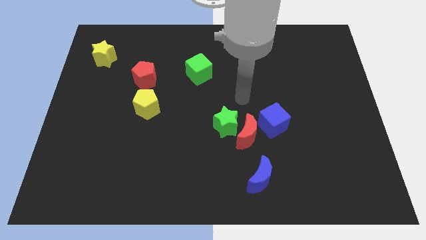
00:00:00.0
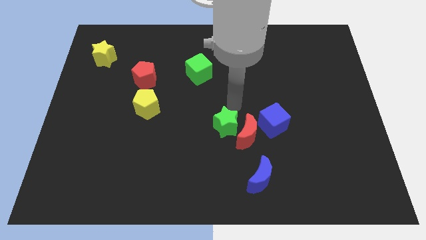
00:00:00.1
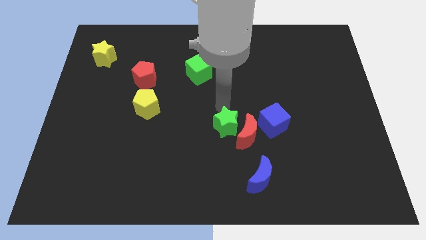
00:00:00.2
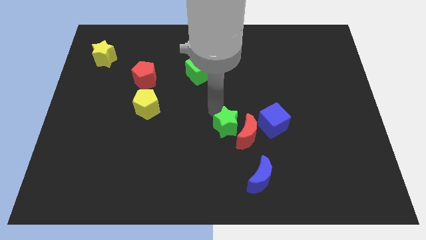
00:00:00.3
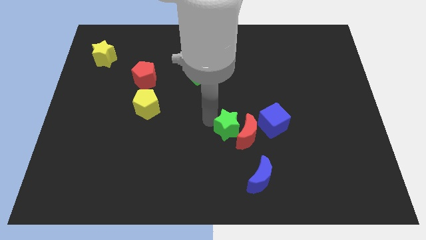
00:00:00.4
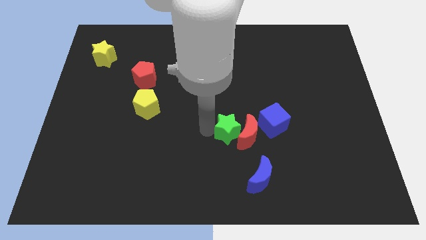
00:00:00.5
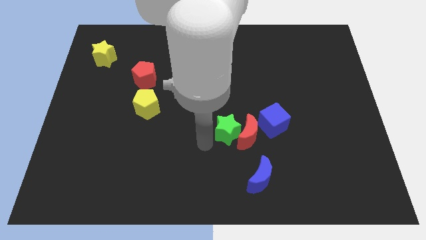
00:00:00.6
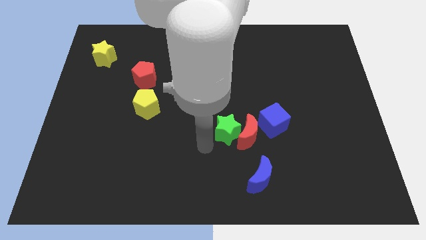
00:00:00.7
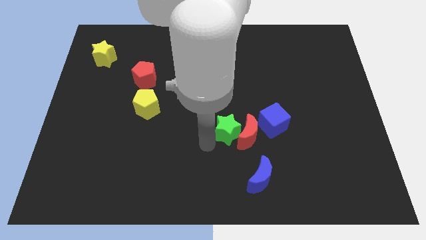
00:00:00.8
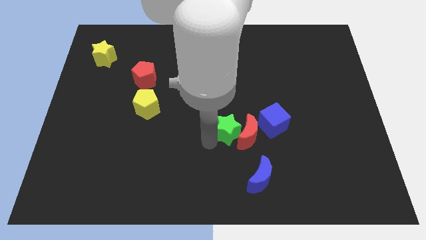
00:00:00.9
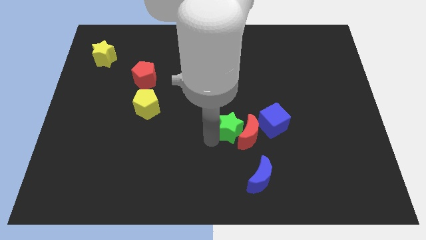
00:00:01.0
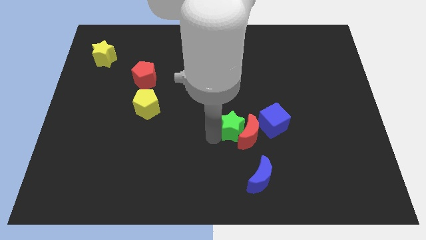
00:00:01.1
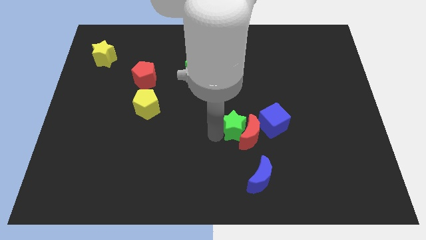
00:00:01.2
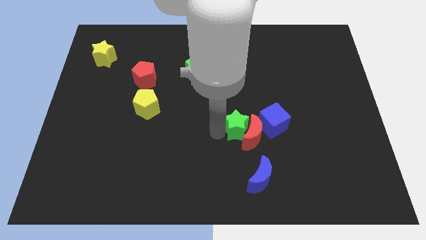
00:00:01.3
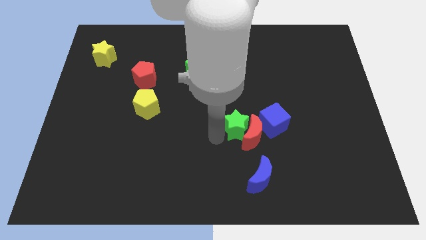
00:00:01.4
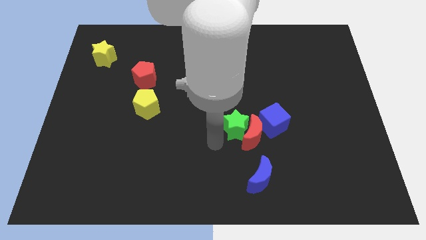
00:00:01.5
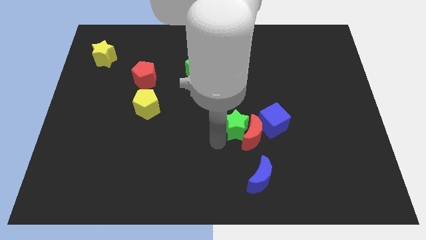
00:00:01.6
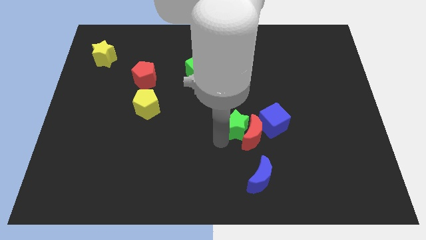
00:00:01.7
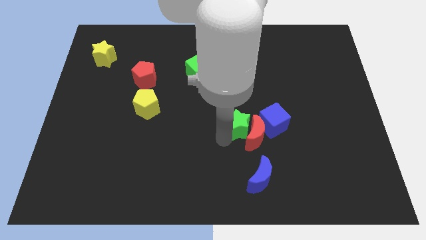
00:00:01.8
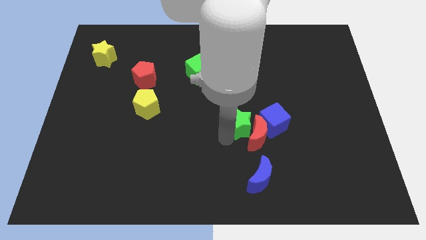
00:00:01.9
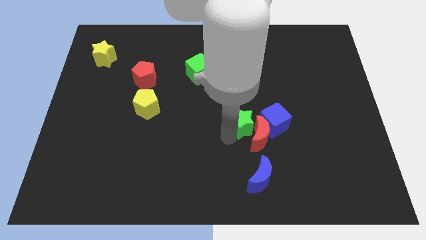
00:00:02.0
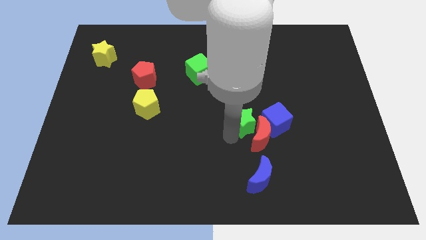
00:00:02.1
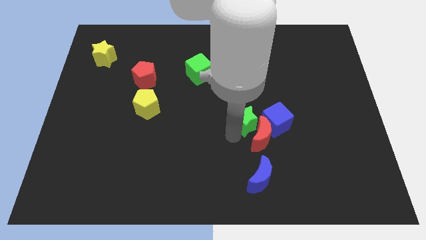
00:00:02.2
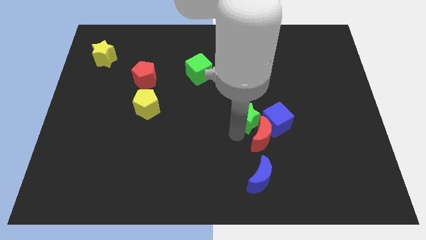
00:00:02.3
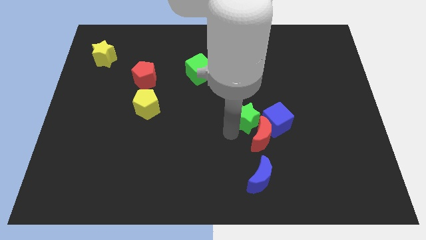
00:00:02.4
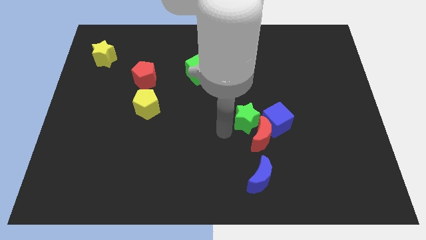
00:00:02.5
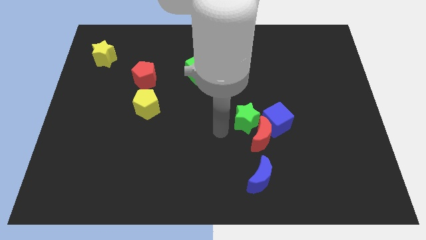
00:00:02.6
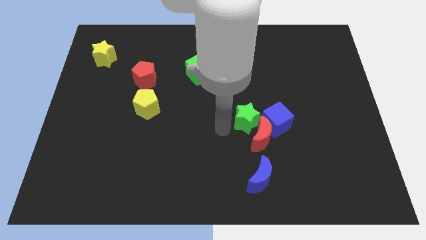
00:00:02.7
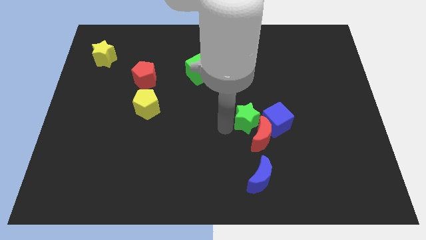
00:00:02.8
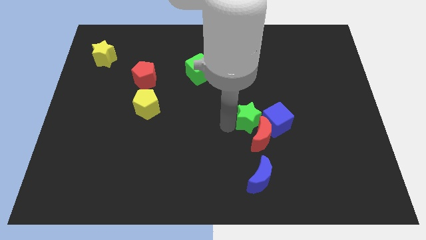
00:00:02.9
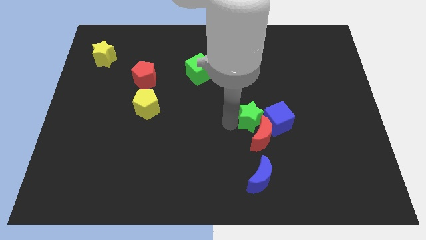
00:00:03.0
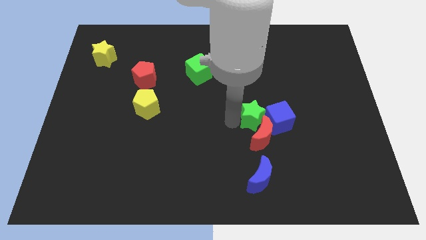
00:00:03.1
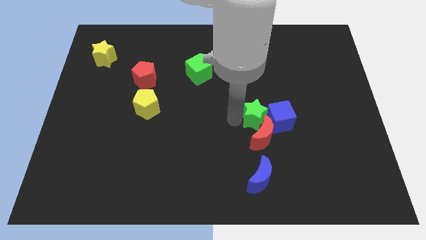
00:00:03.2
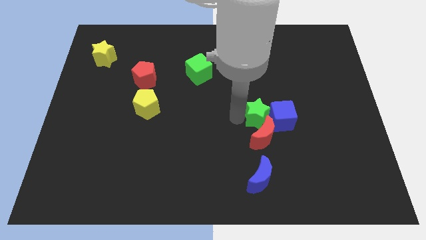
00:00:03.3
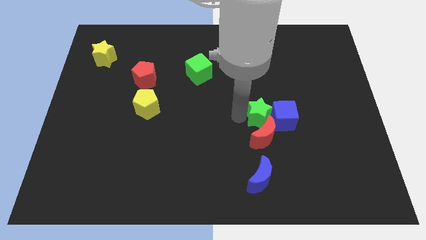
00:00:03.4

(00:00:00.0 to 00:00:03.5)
slightly slide the green star to the right

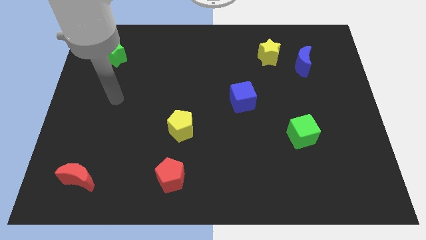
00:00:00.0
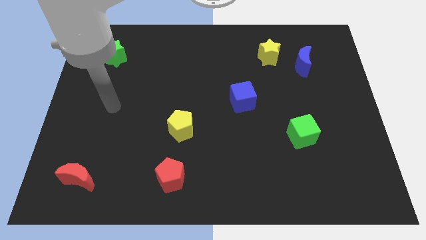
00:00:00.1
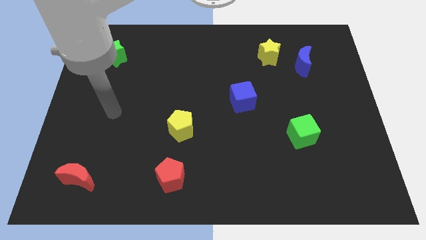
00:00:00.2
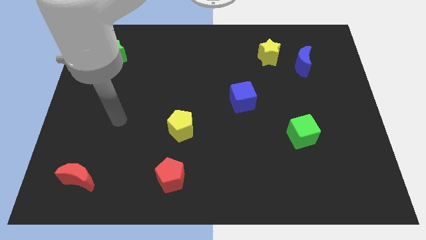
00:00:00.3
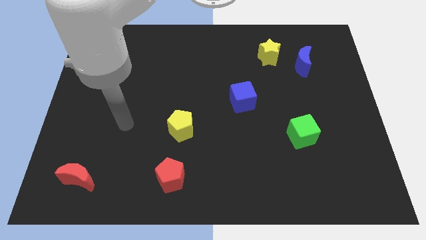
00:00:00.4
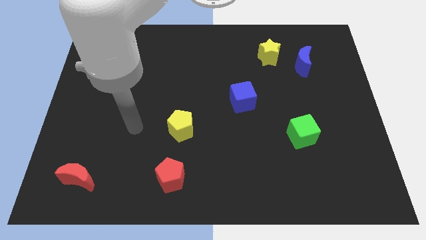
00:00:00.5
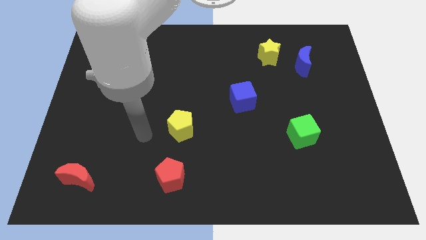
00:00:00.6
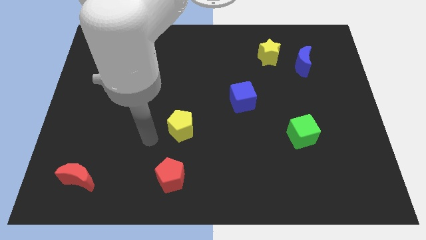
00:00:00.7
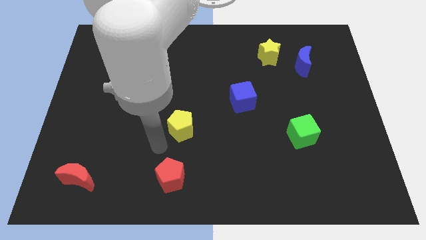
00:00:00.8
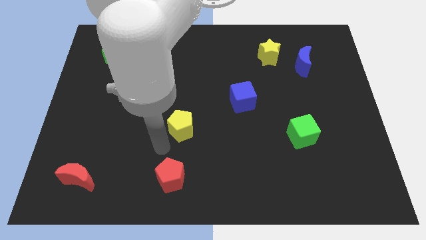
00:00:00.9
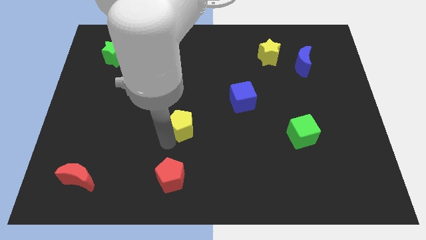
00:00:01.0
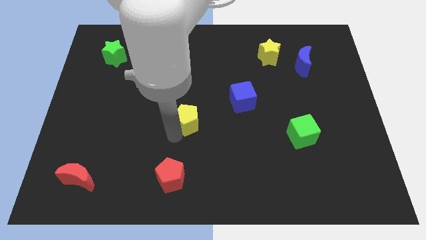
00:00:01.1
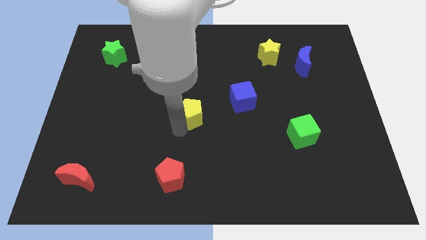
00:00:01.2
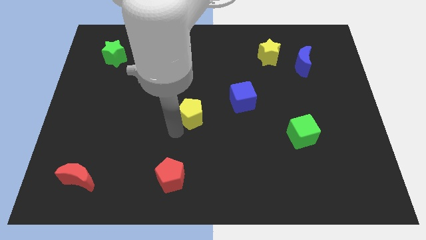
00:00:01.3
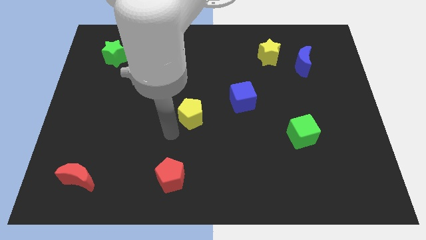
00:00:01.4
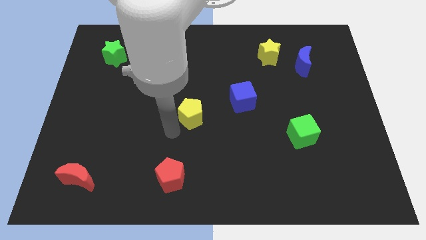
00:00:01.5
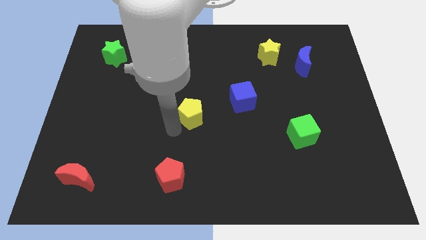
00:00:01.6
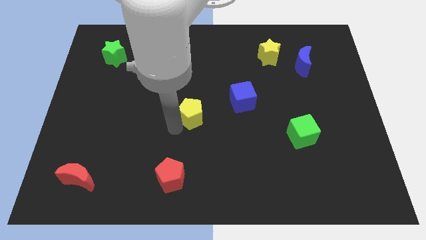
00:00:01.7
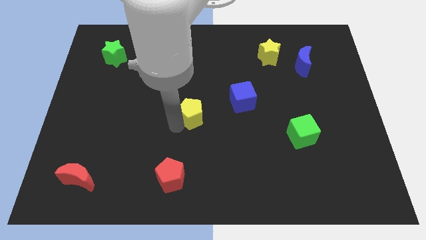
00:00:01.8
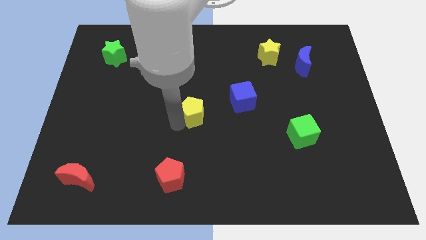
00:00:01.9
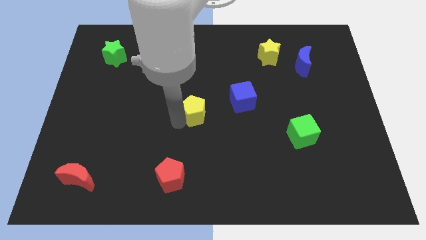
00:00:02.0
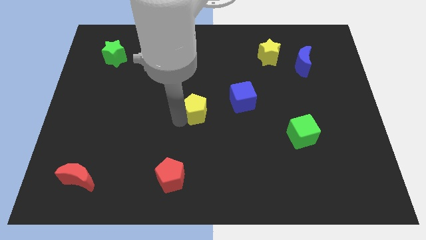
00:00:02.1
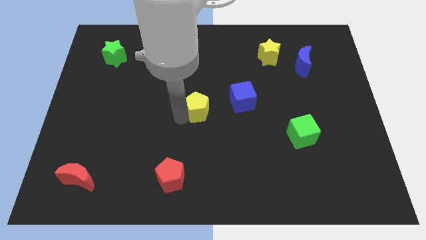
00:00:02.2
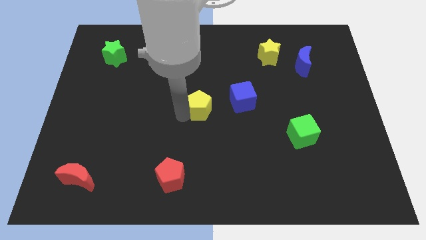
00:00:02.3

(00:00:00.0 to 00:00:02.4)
push the yellow pentagon up and then to the right a bit

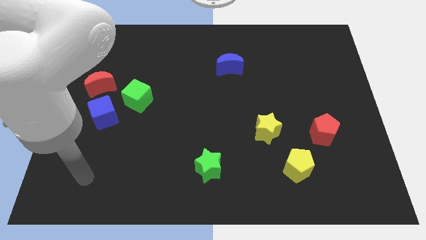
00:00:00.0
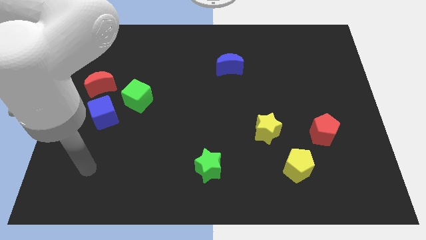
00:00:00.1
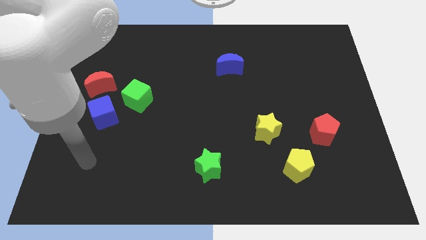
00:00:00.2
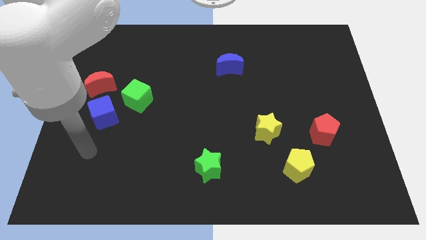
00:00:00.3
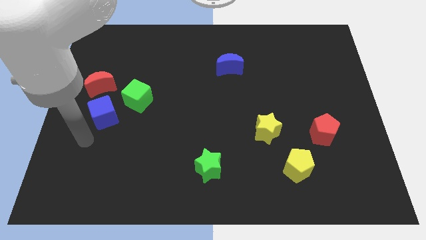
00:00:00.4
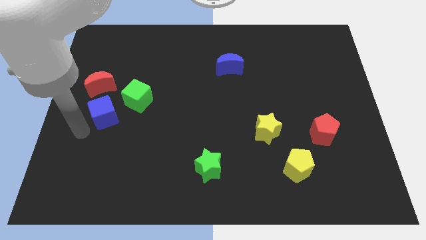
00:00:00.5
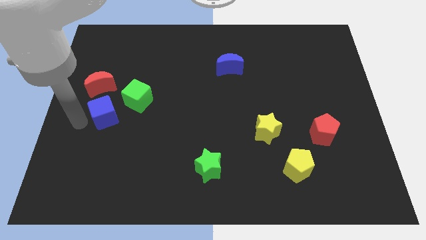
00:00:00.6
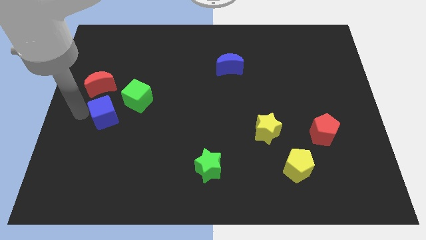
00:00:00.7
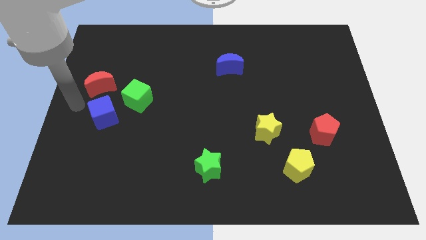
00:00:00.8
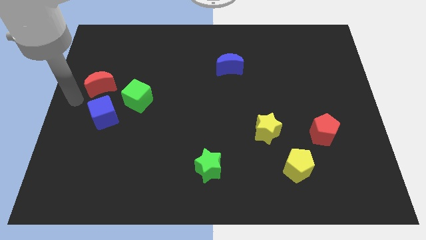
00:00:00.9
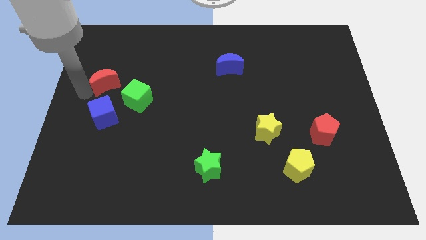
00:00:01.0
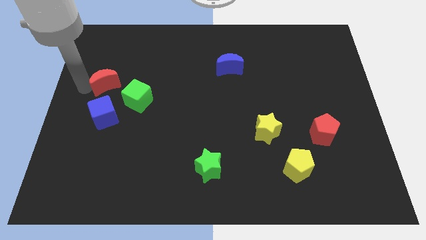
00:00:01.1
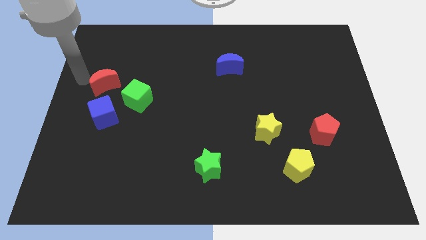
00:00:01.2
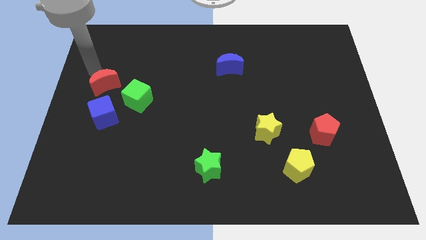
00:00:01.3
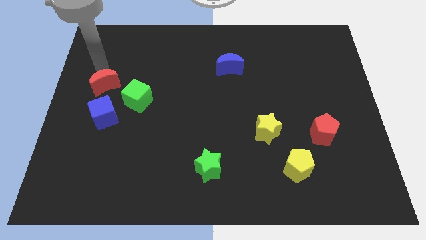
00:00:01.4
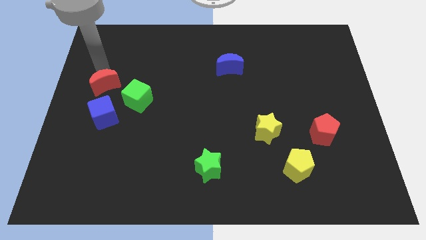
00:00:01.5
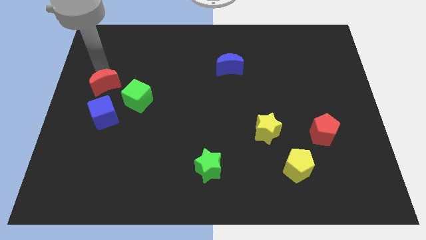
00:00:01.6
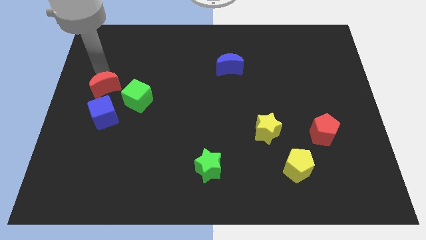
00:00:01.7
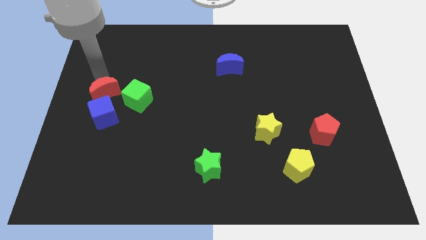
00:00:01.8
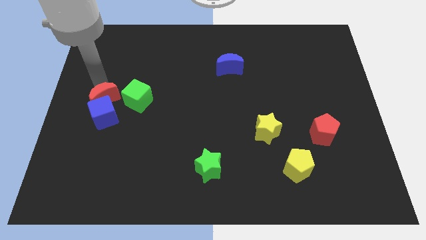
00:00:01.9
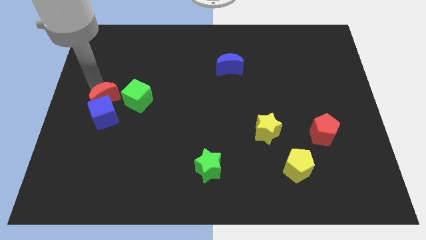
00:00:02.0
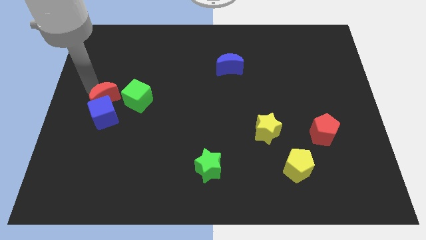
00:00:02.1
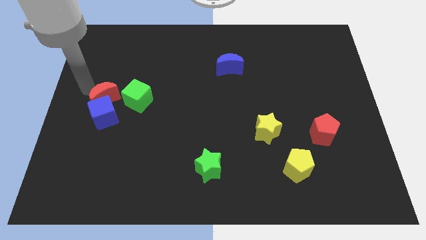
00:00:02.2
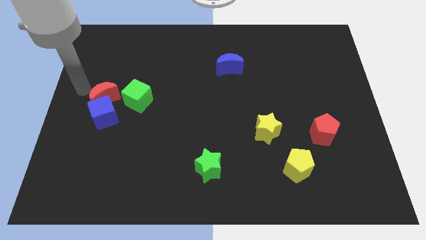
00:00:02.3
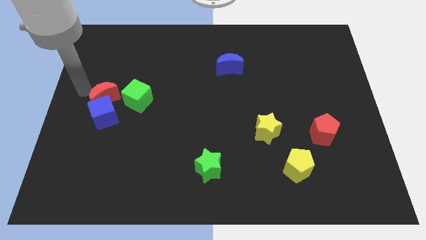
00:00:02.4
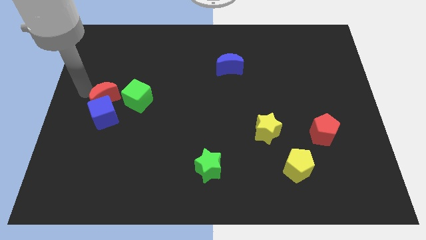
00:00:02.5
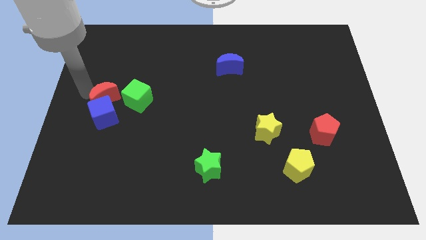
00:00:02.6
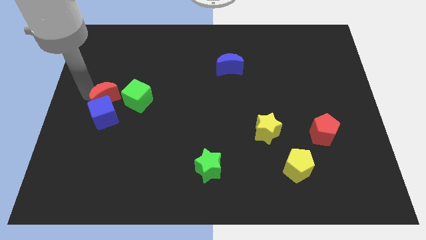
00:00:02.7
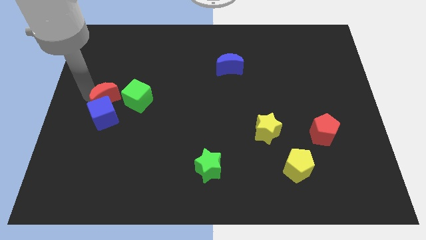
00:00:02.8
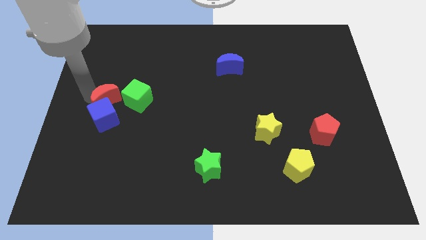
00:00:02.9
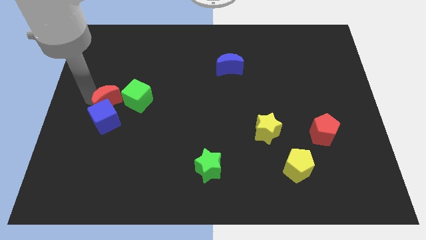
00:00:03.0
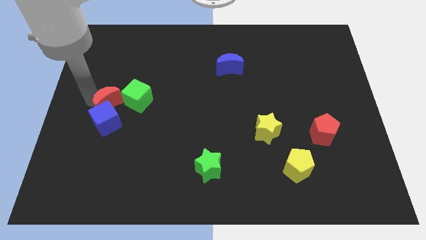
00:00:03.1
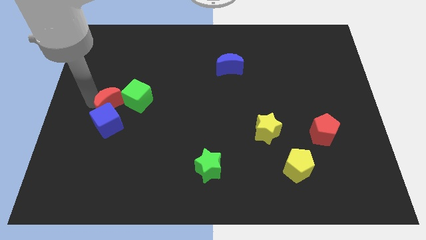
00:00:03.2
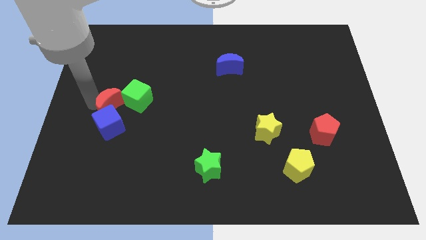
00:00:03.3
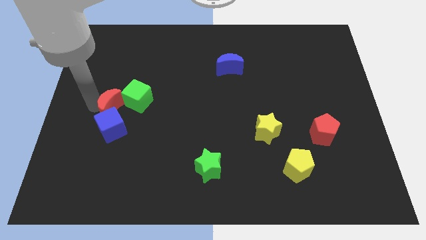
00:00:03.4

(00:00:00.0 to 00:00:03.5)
push the red moon diagonally downwards and right a bit
